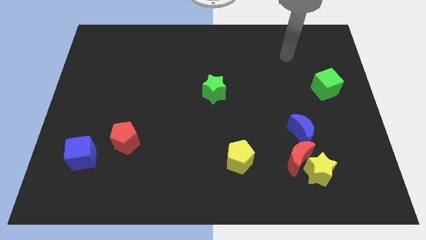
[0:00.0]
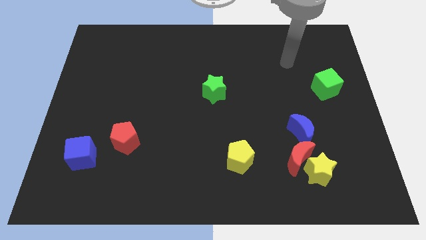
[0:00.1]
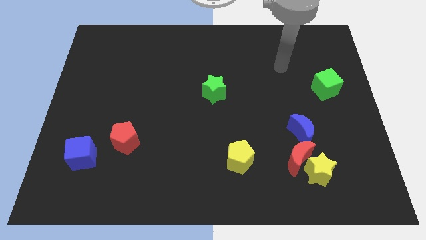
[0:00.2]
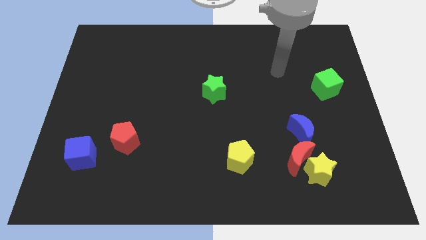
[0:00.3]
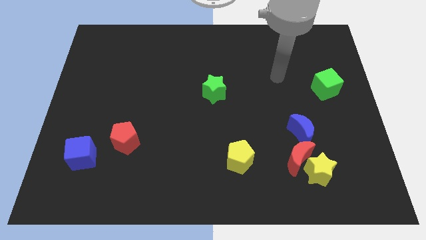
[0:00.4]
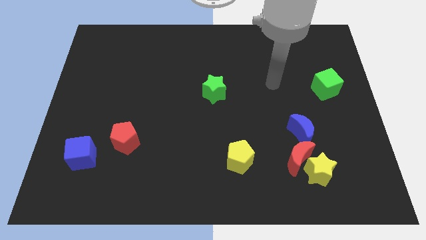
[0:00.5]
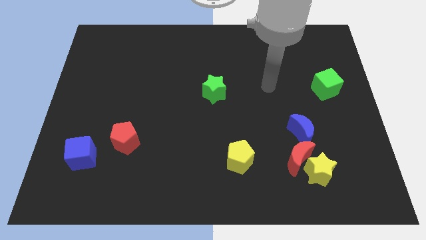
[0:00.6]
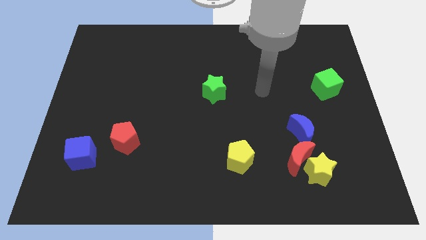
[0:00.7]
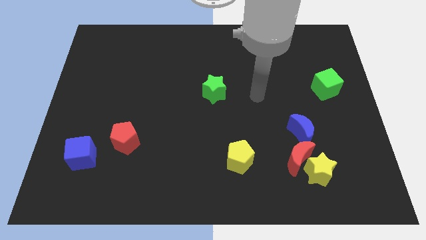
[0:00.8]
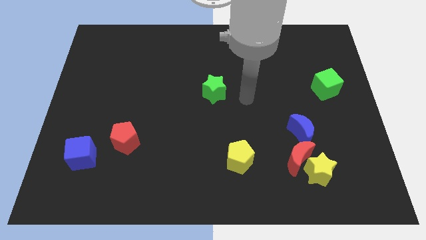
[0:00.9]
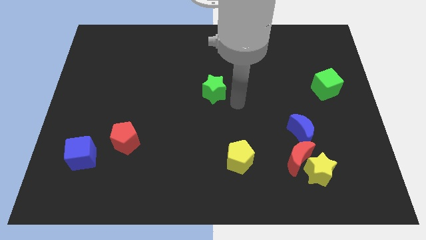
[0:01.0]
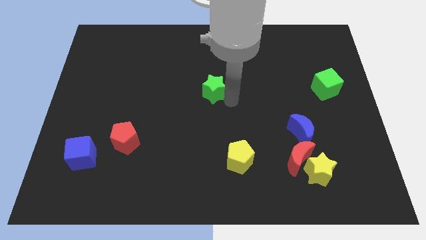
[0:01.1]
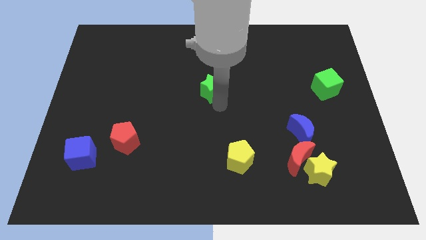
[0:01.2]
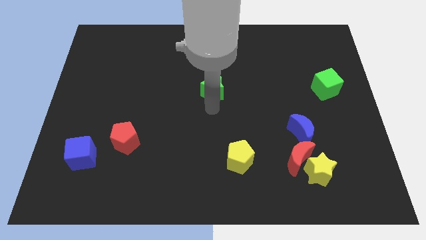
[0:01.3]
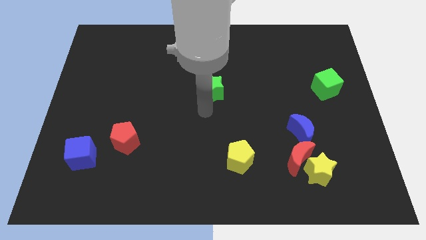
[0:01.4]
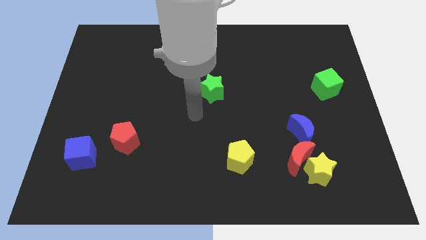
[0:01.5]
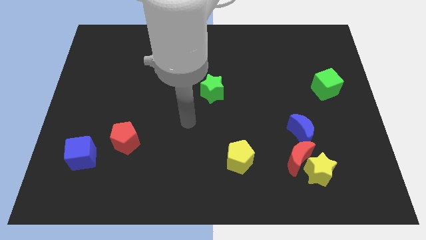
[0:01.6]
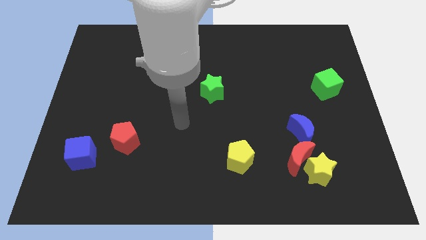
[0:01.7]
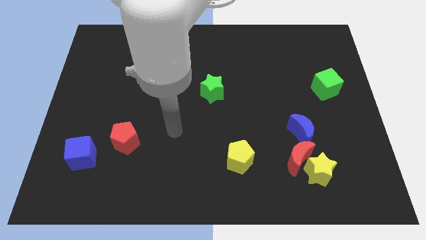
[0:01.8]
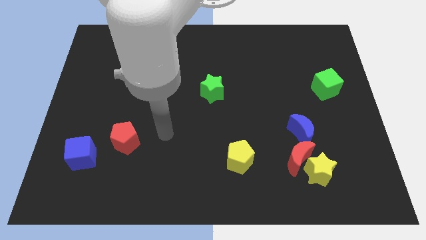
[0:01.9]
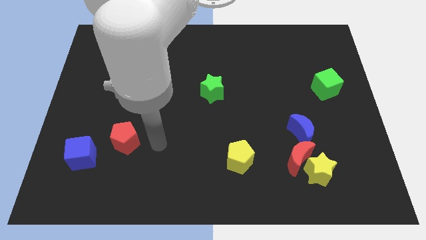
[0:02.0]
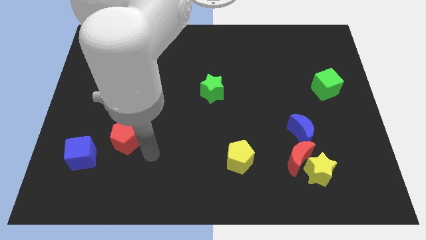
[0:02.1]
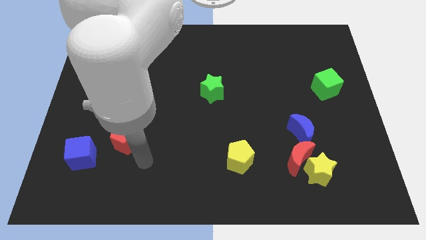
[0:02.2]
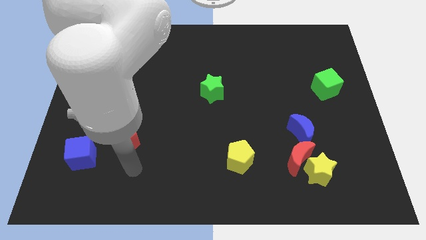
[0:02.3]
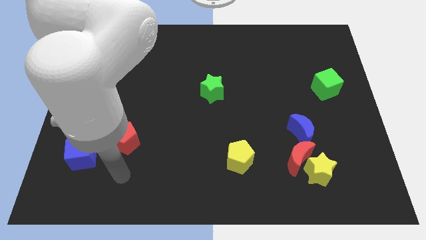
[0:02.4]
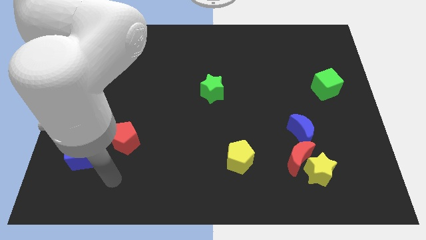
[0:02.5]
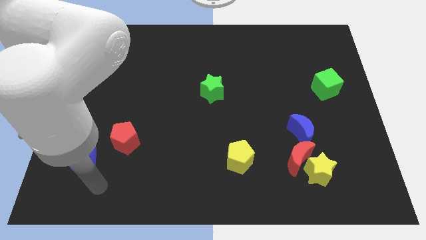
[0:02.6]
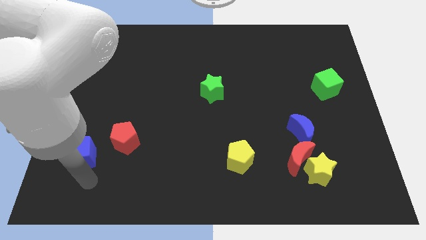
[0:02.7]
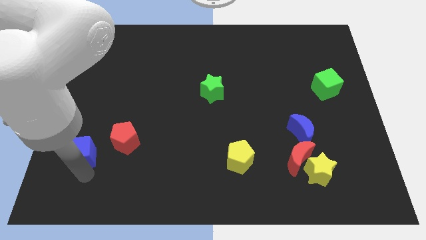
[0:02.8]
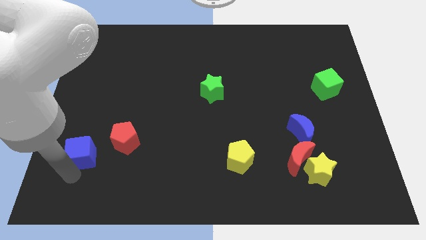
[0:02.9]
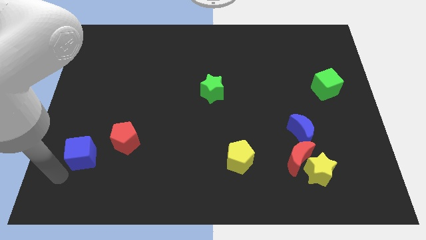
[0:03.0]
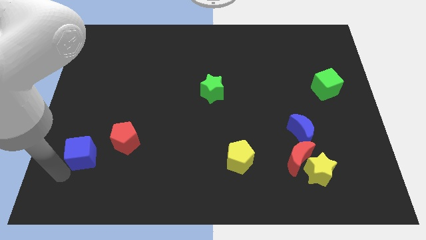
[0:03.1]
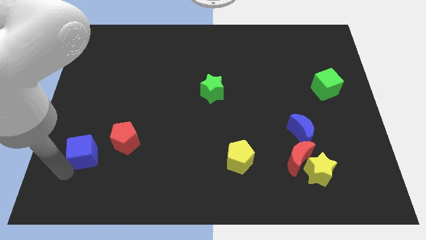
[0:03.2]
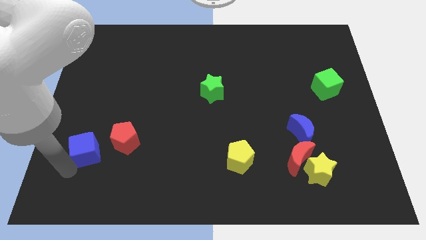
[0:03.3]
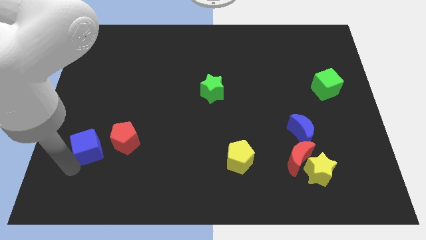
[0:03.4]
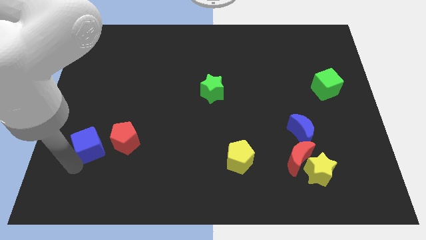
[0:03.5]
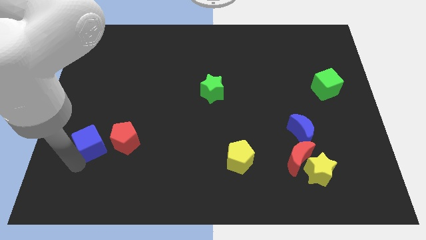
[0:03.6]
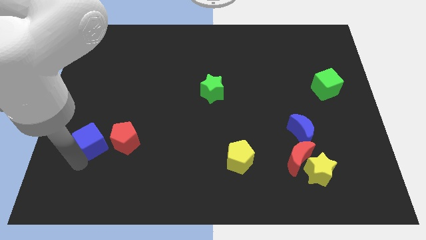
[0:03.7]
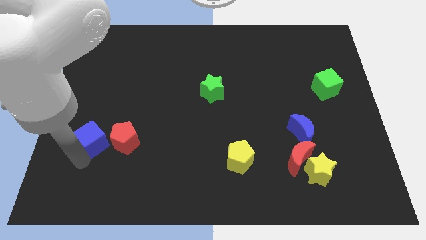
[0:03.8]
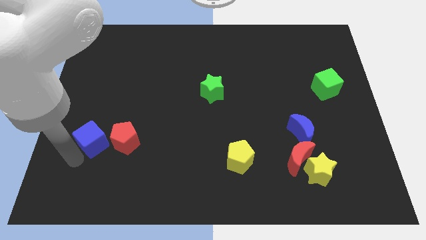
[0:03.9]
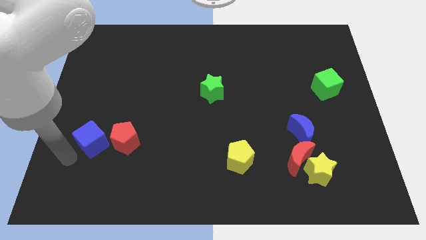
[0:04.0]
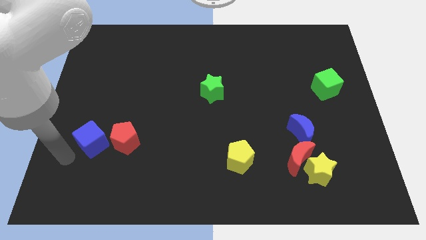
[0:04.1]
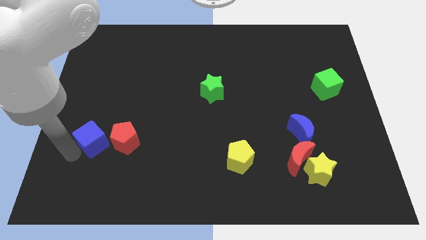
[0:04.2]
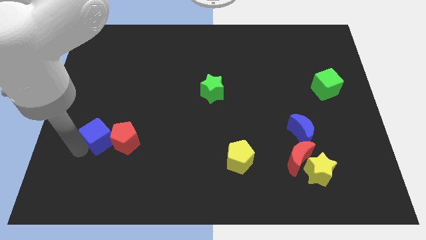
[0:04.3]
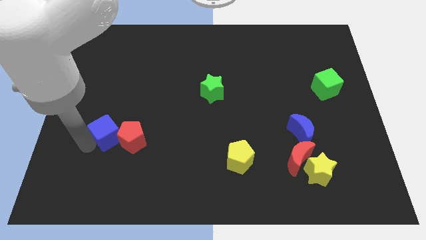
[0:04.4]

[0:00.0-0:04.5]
push the blue cube slightly upwards and to the right diagonally

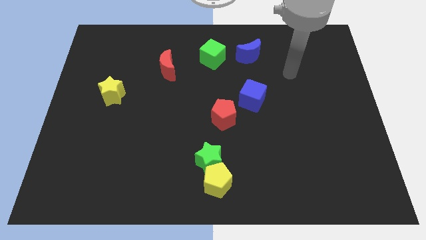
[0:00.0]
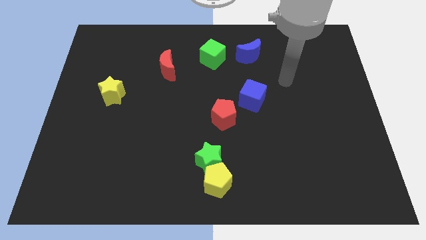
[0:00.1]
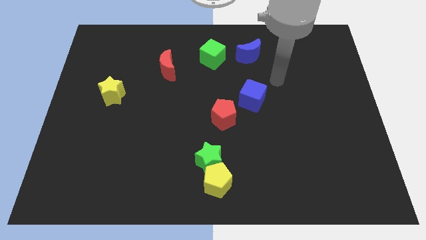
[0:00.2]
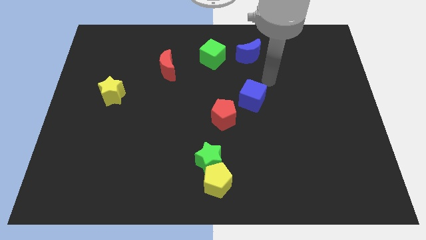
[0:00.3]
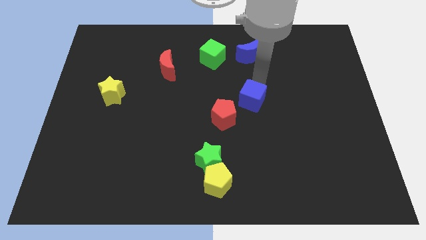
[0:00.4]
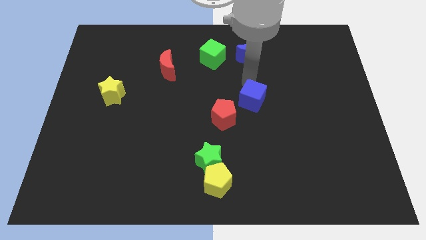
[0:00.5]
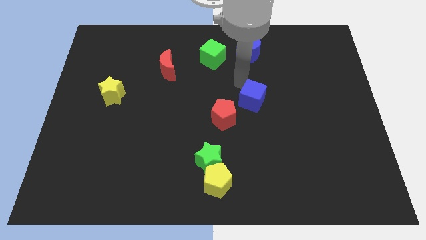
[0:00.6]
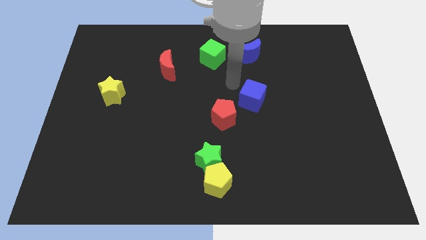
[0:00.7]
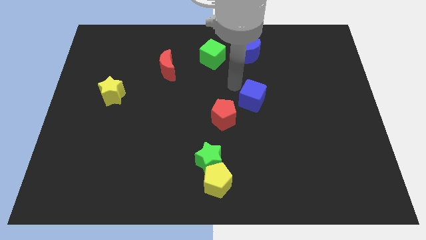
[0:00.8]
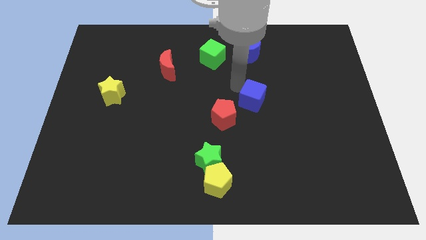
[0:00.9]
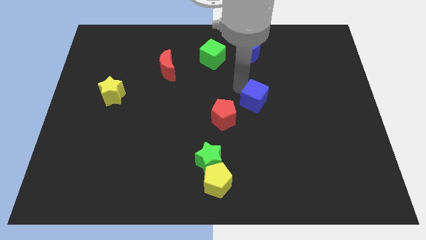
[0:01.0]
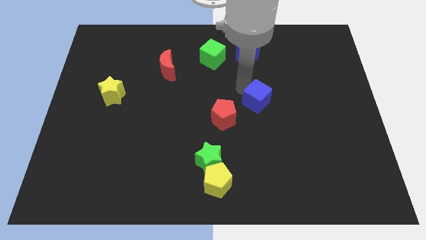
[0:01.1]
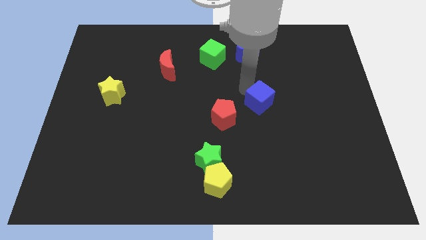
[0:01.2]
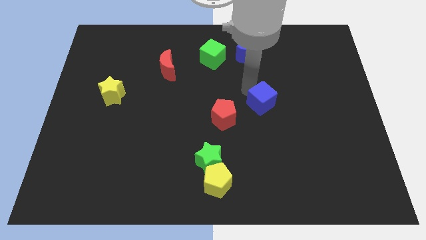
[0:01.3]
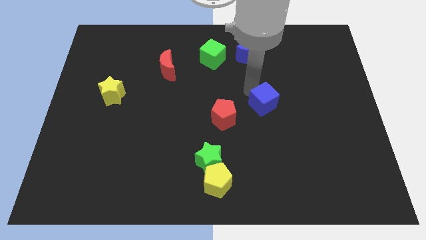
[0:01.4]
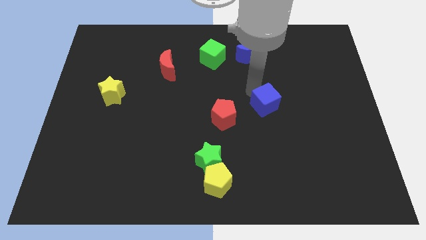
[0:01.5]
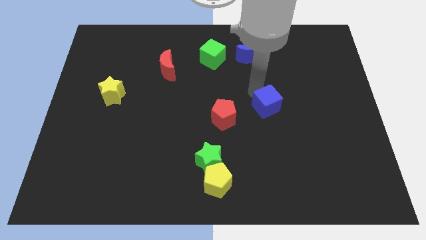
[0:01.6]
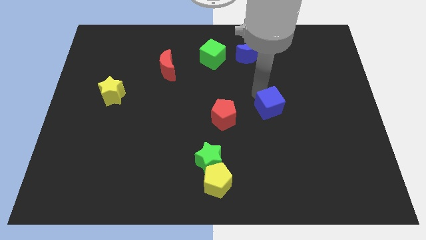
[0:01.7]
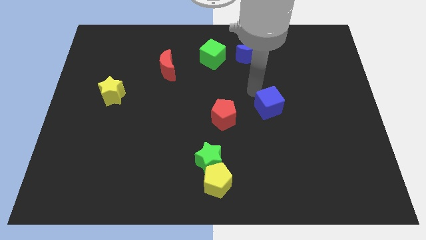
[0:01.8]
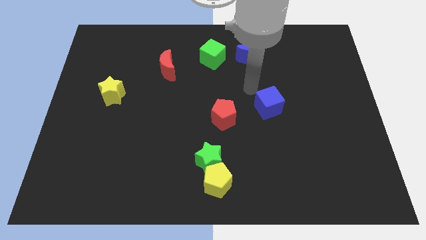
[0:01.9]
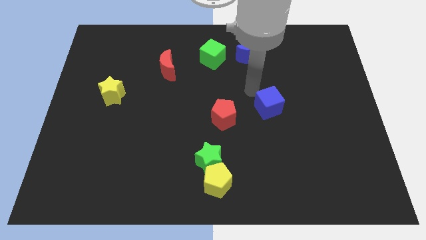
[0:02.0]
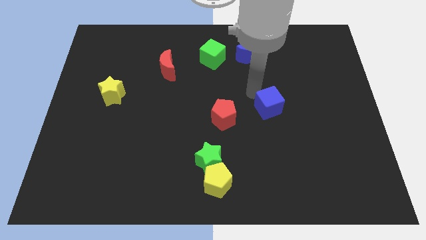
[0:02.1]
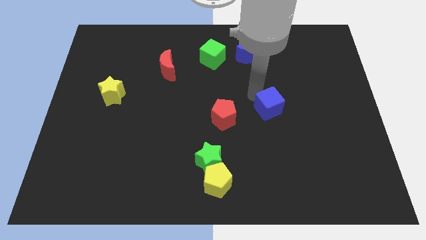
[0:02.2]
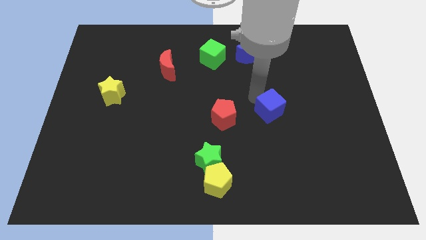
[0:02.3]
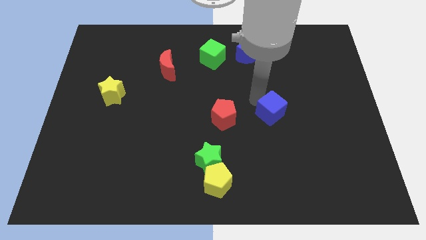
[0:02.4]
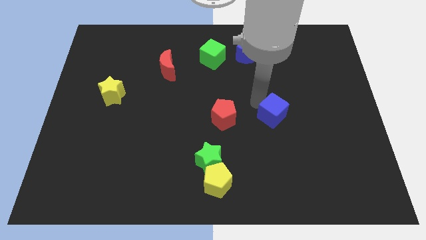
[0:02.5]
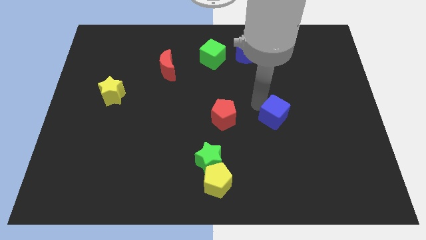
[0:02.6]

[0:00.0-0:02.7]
slightly move the blue cube down and to the right diagonally

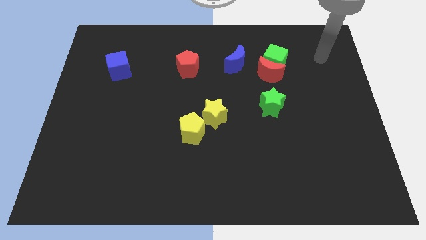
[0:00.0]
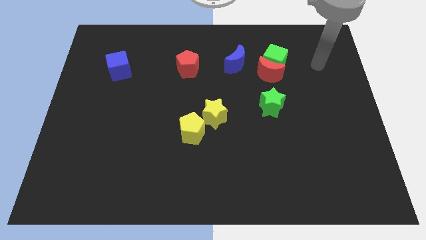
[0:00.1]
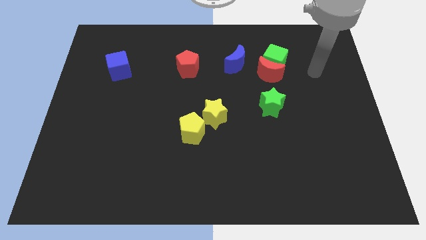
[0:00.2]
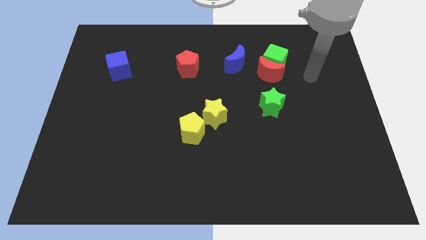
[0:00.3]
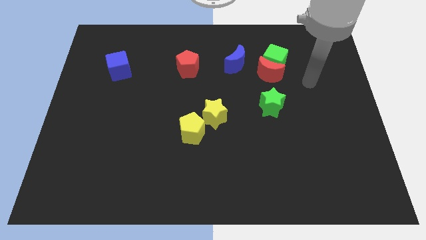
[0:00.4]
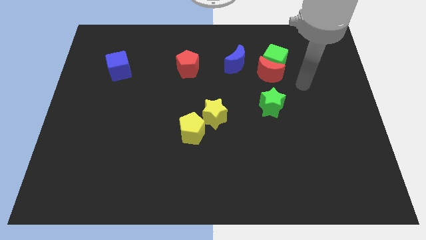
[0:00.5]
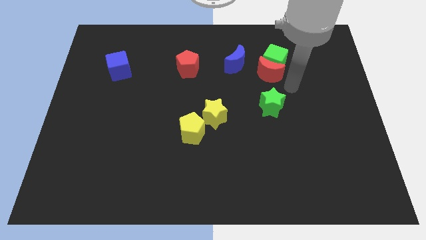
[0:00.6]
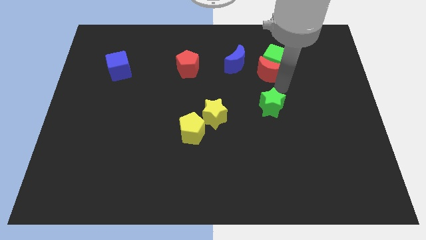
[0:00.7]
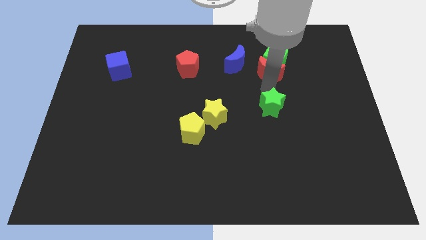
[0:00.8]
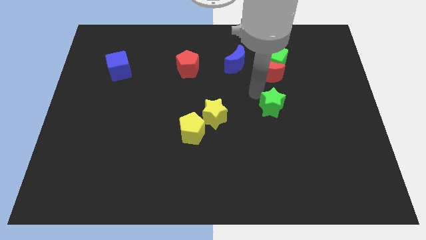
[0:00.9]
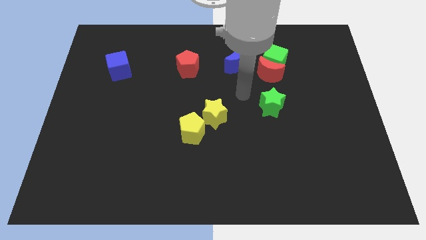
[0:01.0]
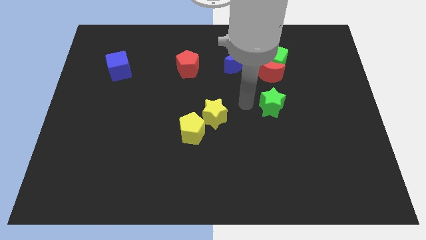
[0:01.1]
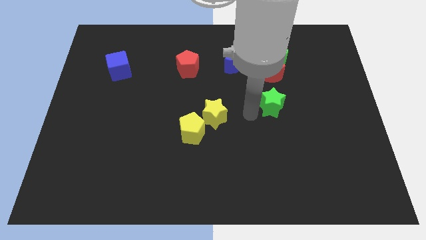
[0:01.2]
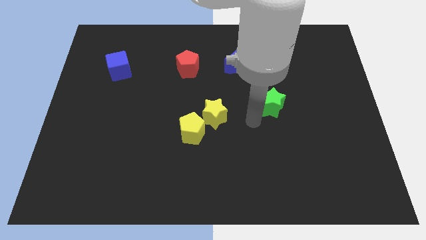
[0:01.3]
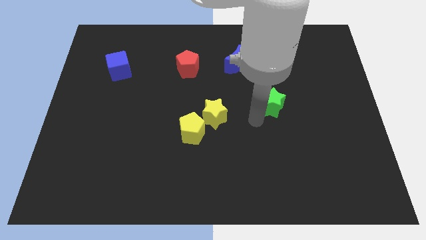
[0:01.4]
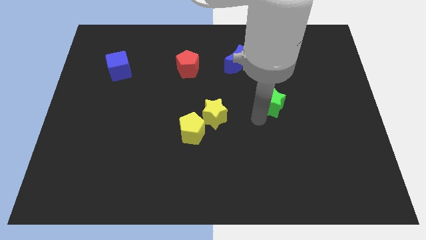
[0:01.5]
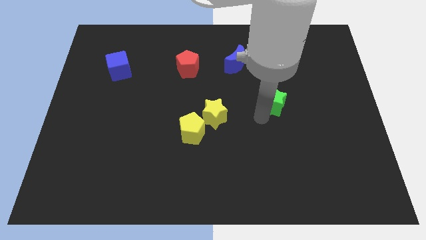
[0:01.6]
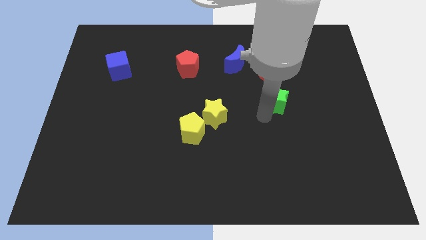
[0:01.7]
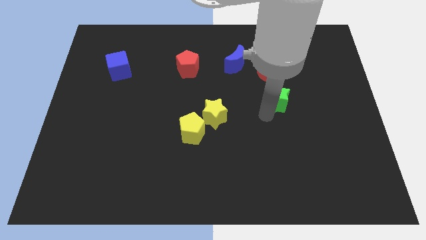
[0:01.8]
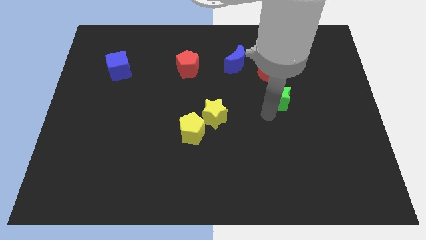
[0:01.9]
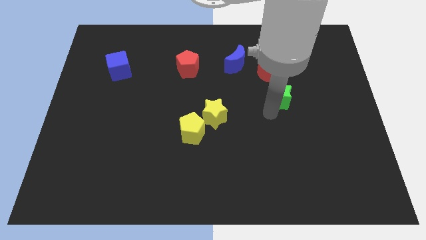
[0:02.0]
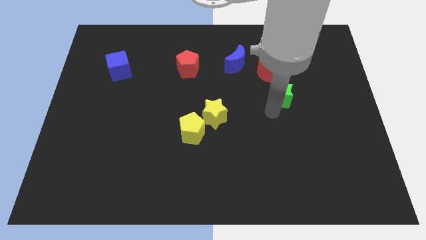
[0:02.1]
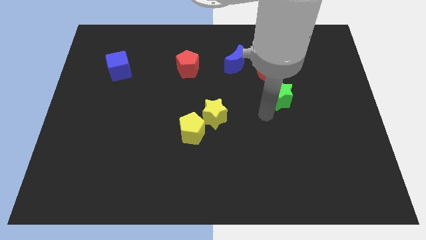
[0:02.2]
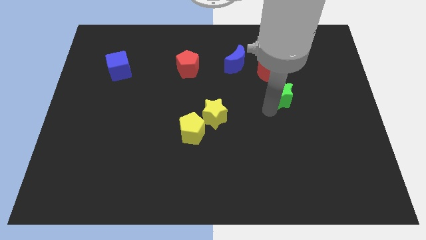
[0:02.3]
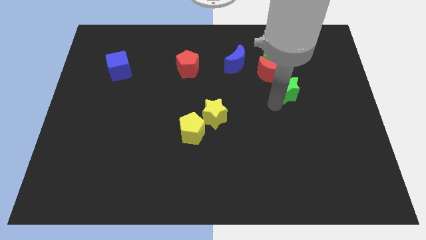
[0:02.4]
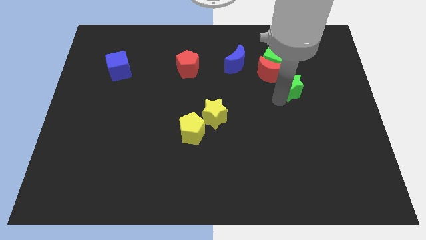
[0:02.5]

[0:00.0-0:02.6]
slightly push the green star diagonally upwards and right
